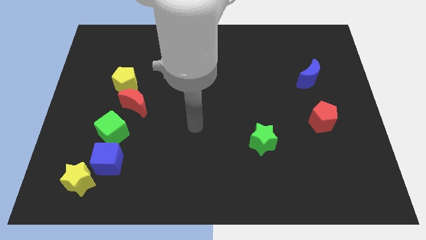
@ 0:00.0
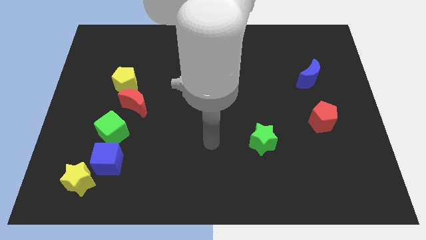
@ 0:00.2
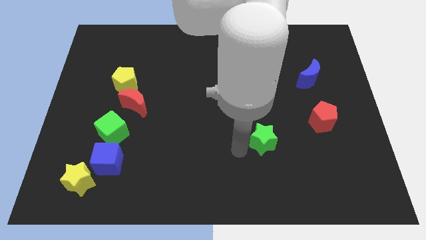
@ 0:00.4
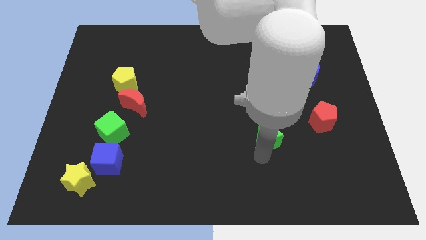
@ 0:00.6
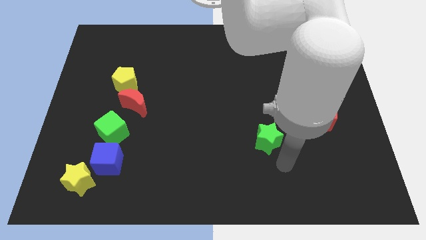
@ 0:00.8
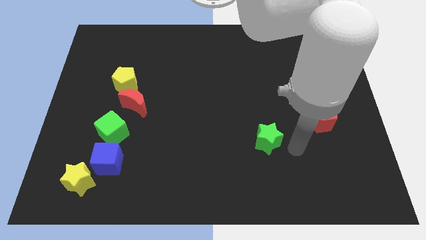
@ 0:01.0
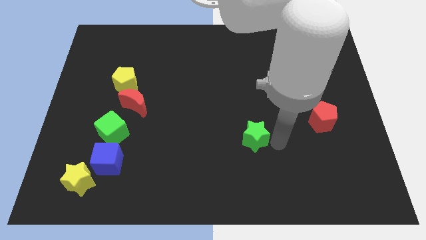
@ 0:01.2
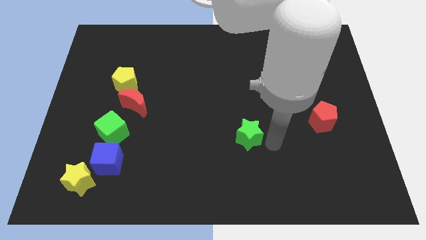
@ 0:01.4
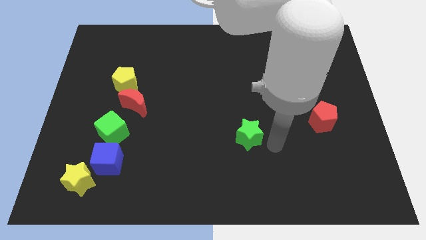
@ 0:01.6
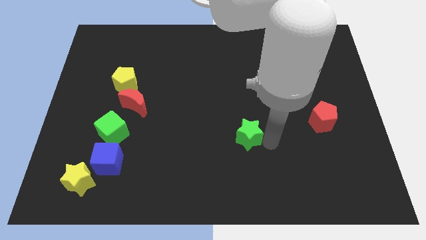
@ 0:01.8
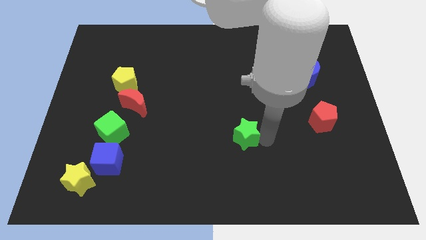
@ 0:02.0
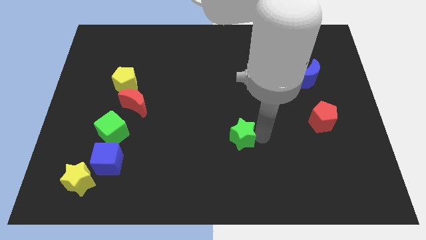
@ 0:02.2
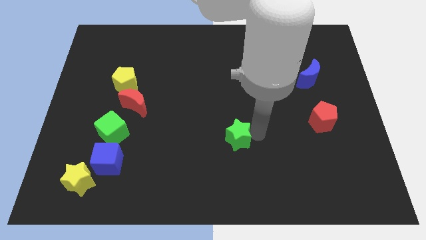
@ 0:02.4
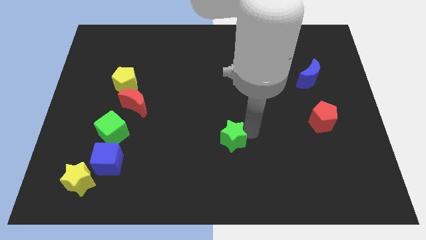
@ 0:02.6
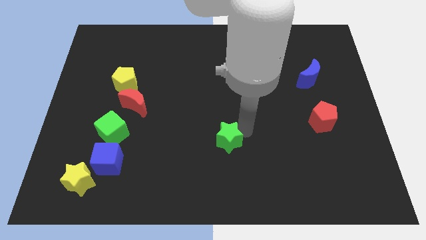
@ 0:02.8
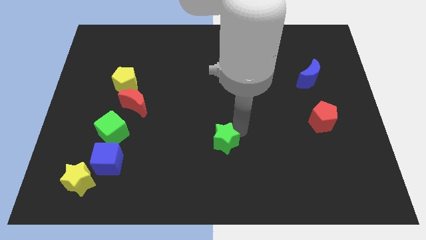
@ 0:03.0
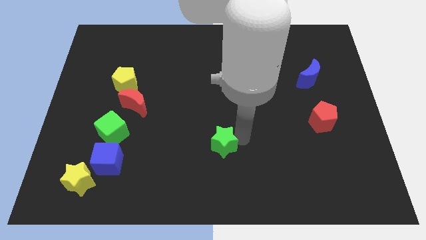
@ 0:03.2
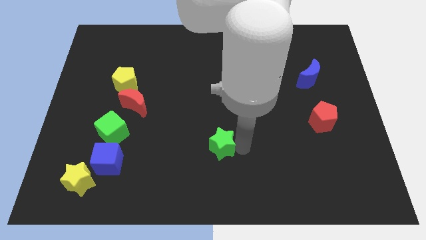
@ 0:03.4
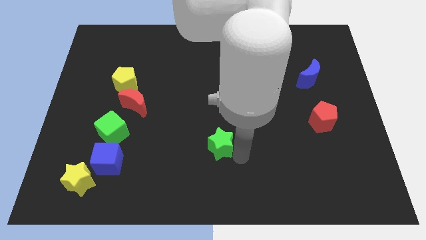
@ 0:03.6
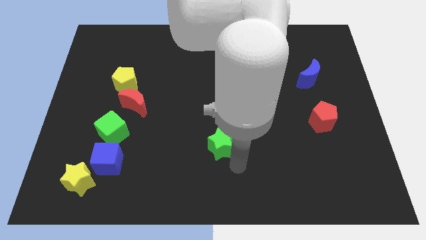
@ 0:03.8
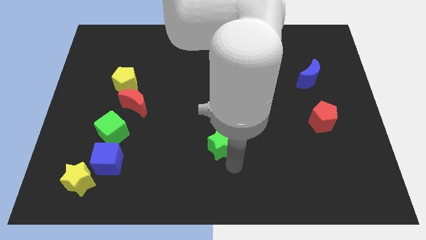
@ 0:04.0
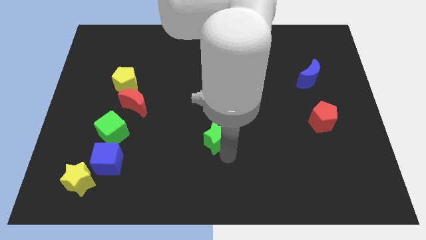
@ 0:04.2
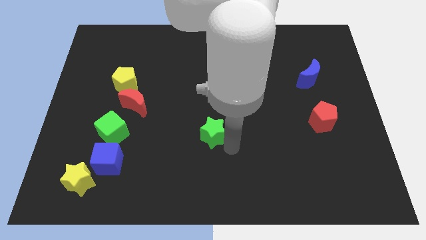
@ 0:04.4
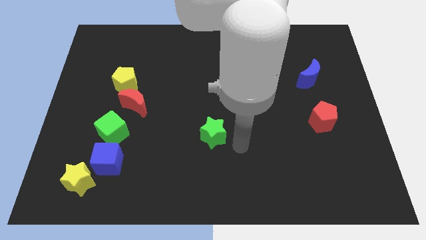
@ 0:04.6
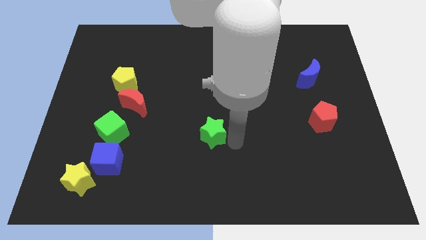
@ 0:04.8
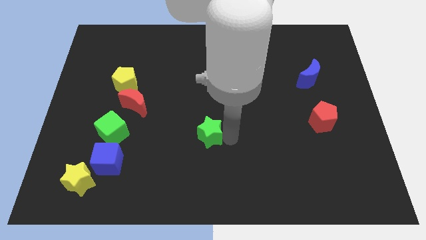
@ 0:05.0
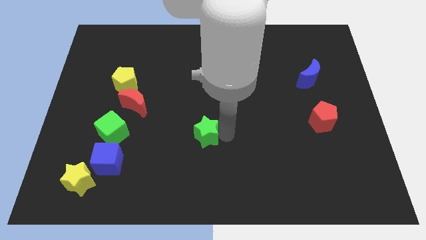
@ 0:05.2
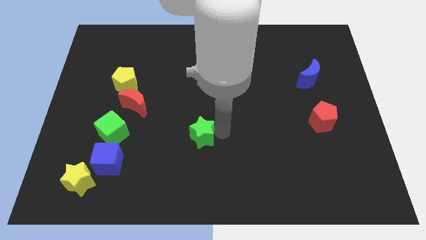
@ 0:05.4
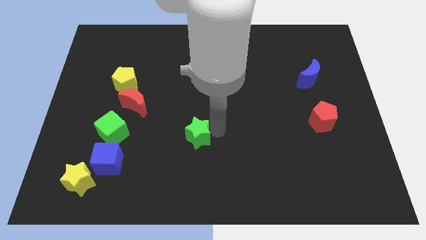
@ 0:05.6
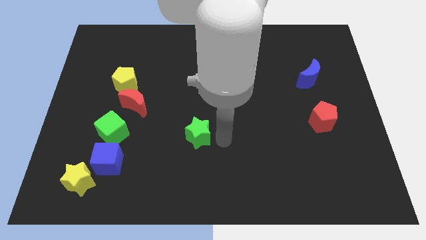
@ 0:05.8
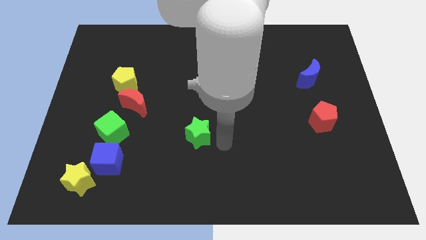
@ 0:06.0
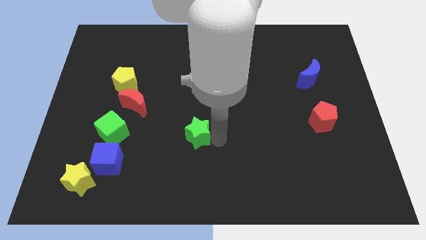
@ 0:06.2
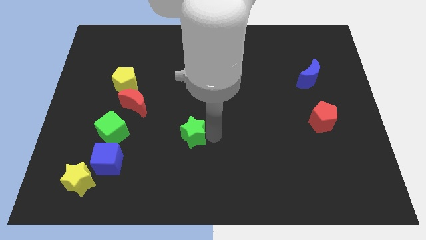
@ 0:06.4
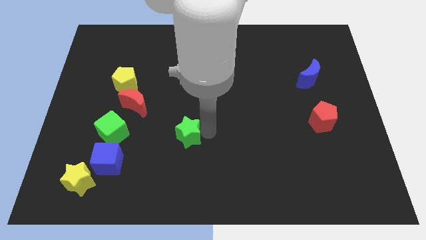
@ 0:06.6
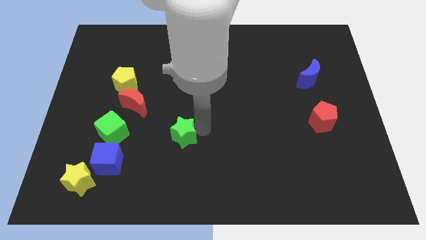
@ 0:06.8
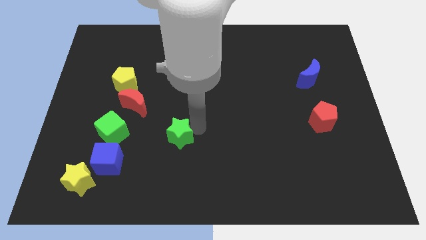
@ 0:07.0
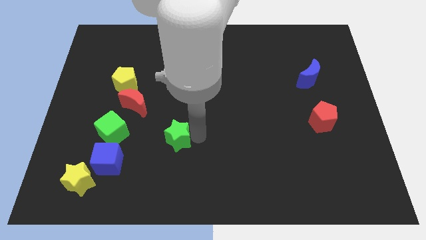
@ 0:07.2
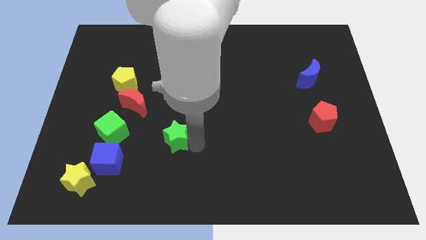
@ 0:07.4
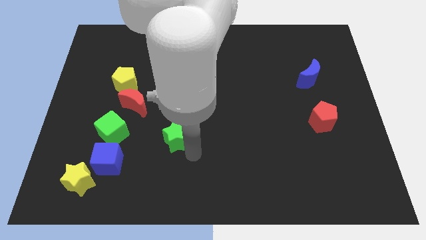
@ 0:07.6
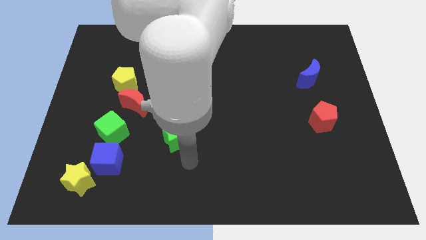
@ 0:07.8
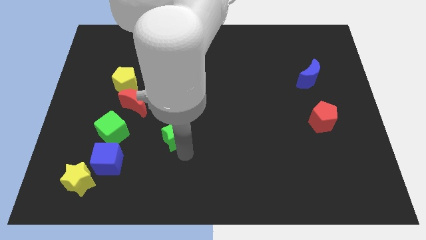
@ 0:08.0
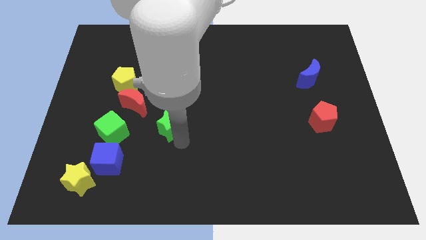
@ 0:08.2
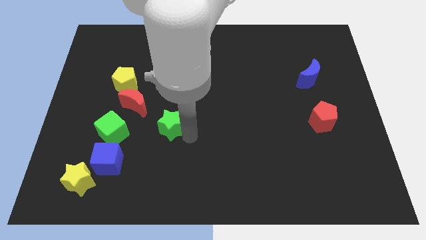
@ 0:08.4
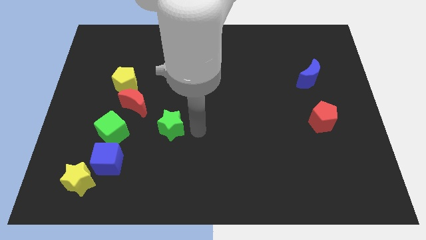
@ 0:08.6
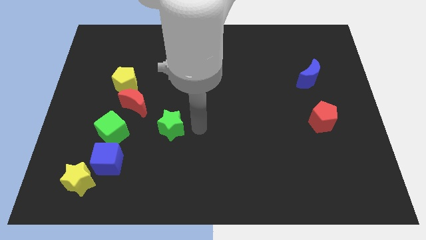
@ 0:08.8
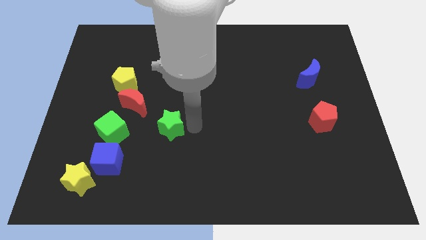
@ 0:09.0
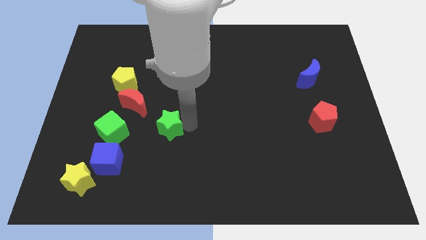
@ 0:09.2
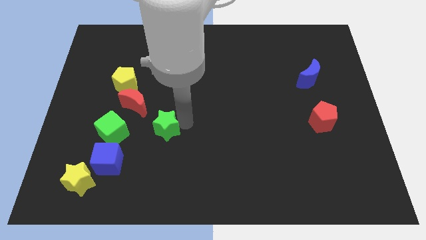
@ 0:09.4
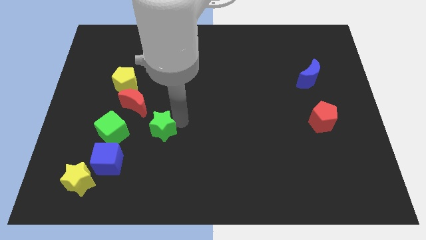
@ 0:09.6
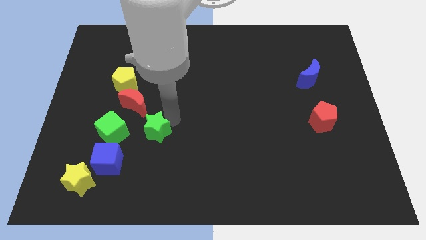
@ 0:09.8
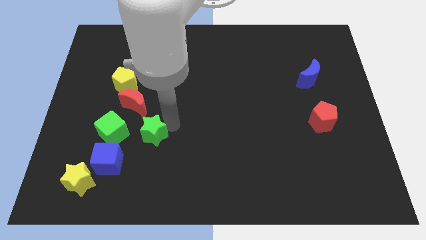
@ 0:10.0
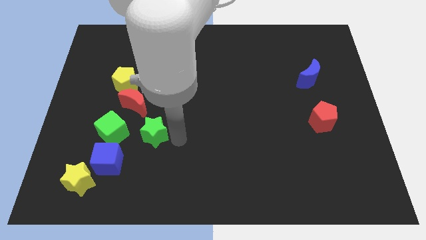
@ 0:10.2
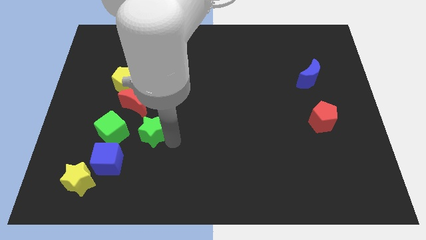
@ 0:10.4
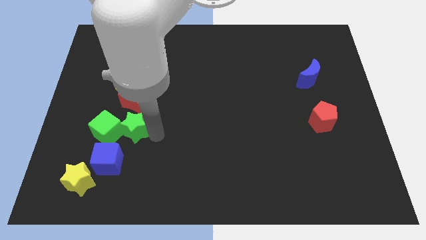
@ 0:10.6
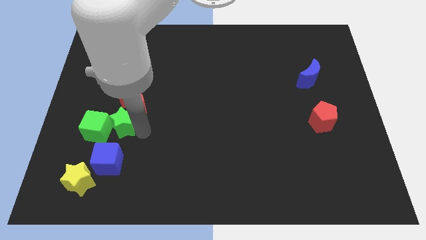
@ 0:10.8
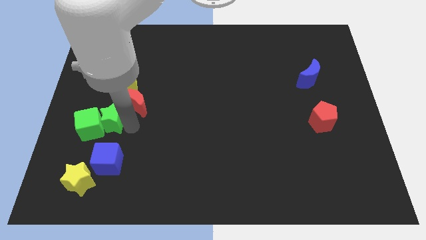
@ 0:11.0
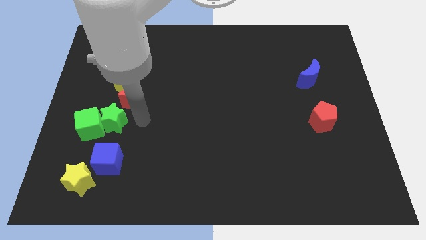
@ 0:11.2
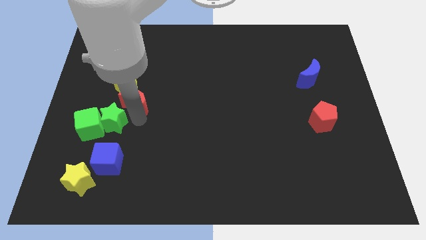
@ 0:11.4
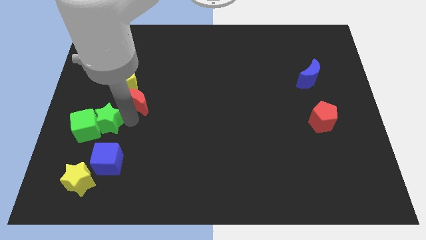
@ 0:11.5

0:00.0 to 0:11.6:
move the green star above the yellow star

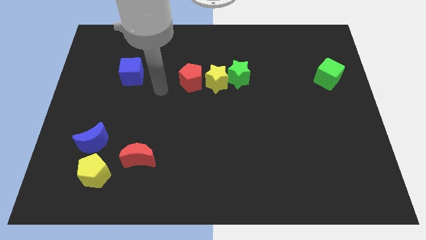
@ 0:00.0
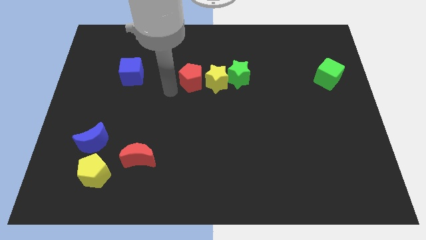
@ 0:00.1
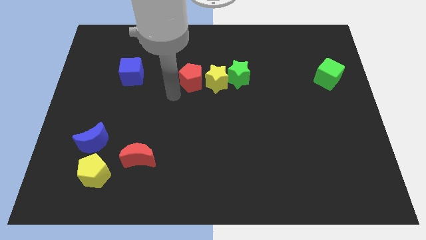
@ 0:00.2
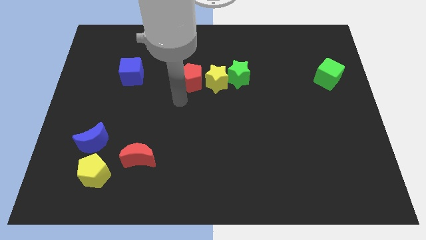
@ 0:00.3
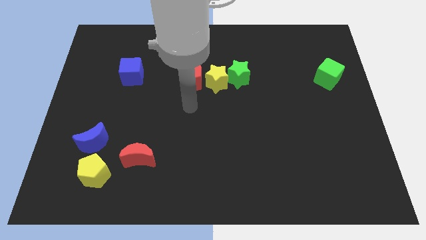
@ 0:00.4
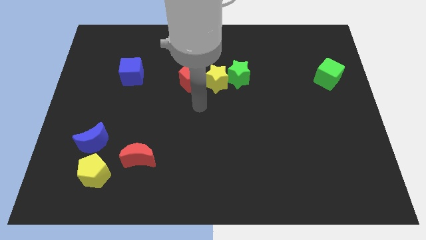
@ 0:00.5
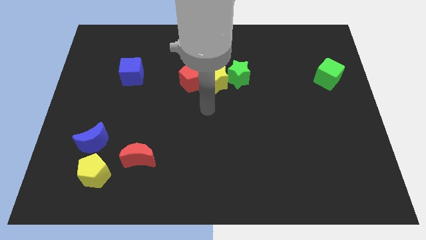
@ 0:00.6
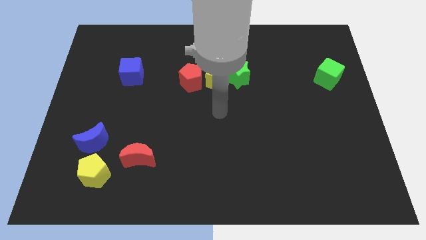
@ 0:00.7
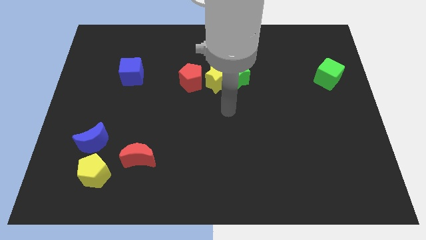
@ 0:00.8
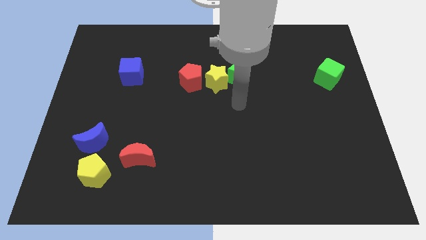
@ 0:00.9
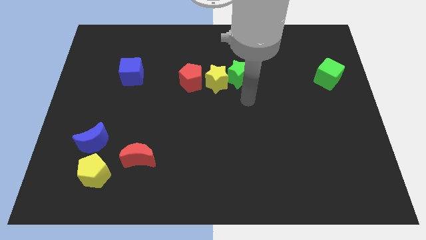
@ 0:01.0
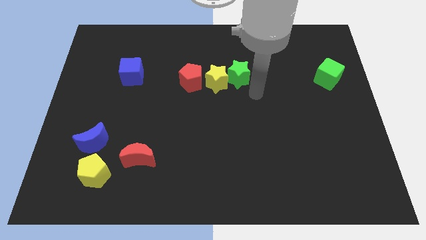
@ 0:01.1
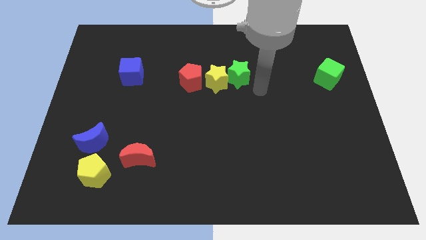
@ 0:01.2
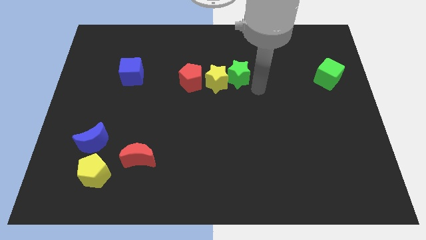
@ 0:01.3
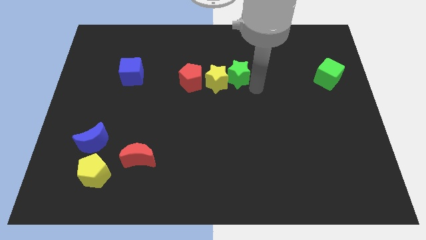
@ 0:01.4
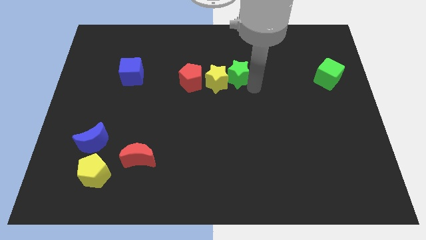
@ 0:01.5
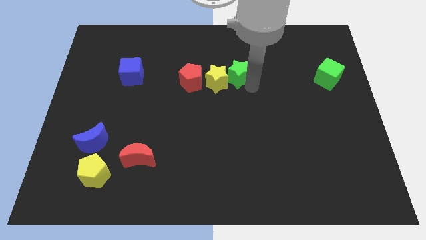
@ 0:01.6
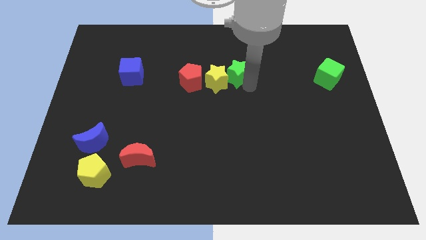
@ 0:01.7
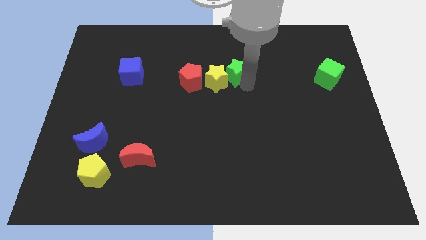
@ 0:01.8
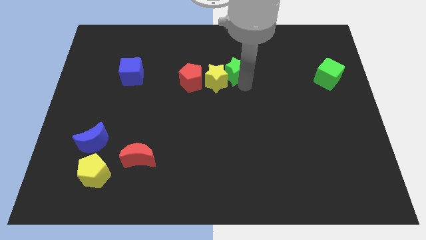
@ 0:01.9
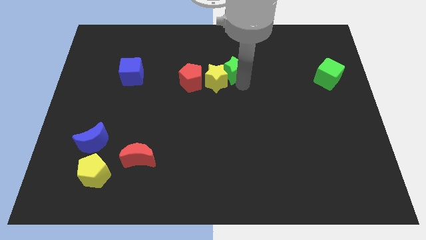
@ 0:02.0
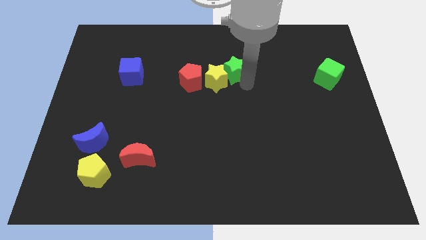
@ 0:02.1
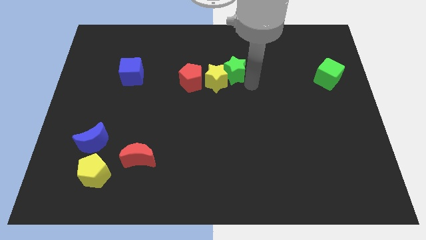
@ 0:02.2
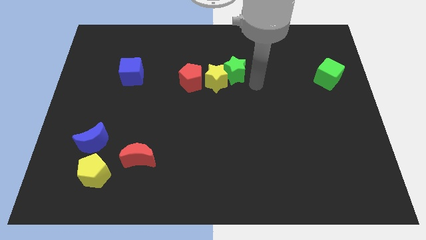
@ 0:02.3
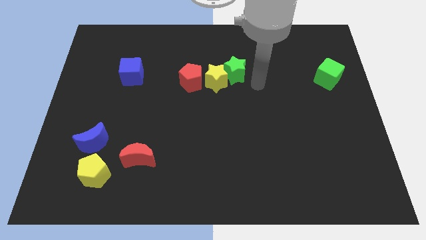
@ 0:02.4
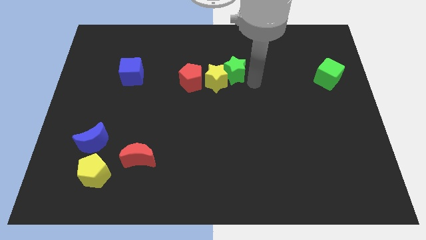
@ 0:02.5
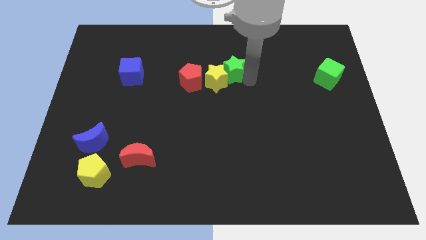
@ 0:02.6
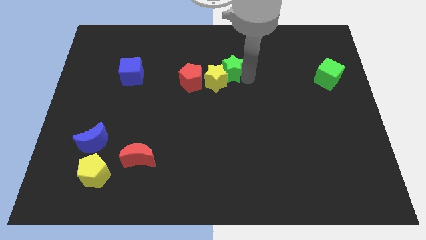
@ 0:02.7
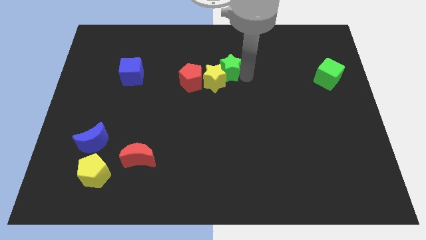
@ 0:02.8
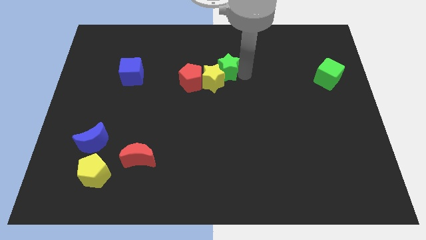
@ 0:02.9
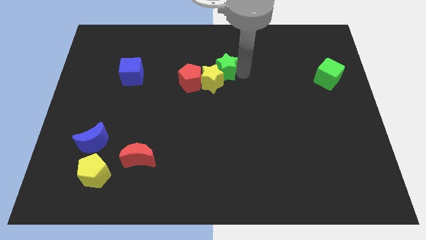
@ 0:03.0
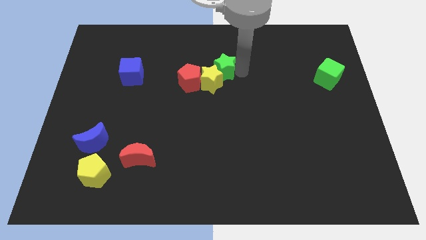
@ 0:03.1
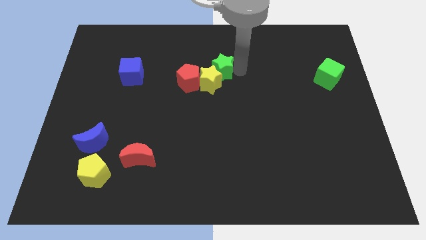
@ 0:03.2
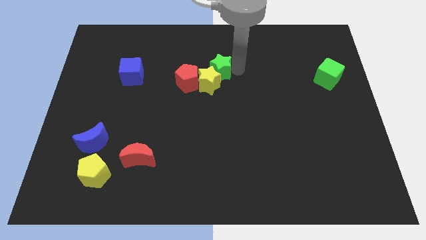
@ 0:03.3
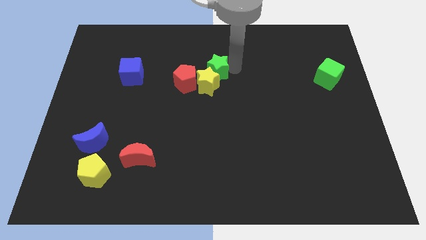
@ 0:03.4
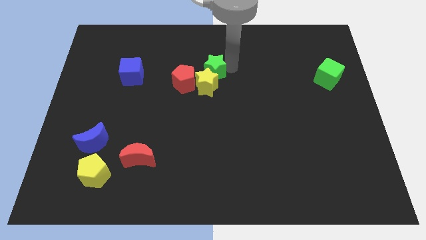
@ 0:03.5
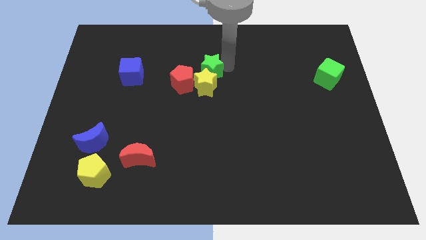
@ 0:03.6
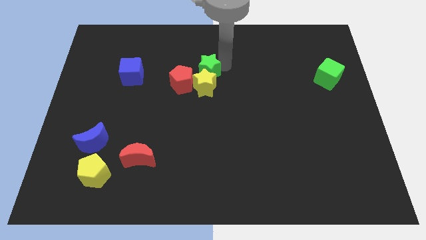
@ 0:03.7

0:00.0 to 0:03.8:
push the green star diagonally up and to the left of the yellow star
